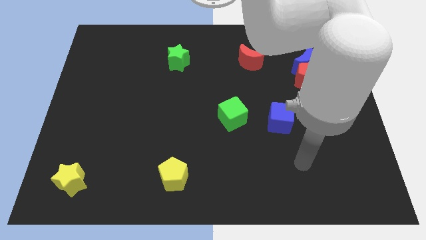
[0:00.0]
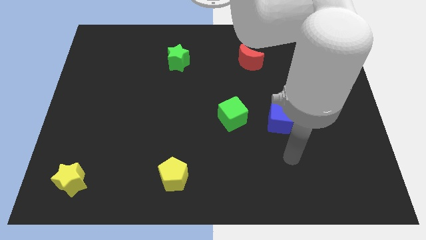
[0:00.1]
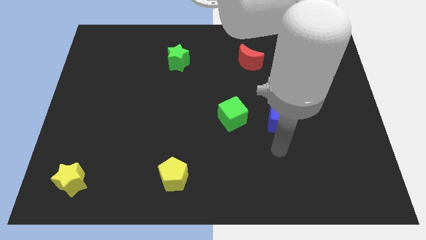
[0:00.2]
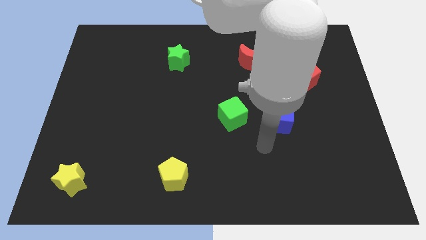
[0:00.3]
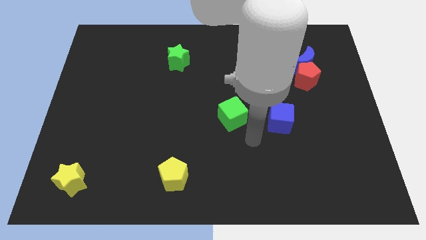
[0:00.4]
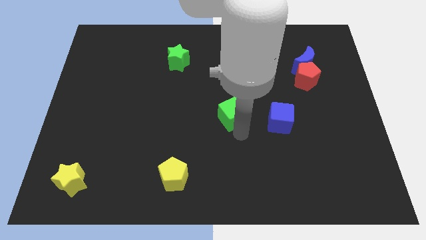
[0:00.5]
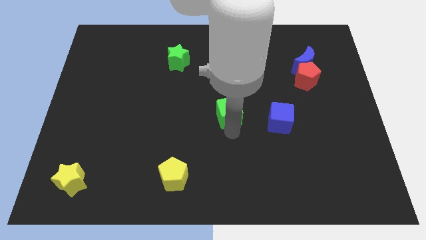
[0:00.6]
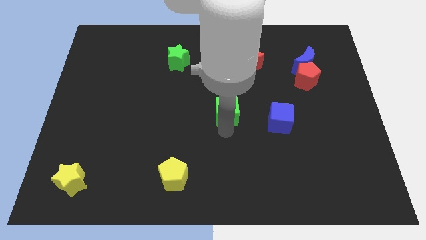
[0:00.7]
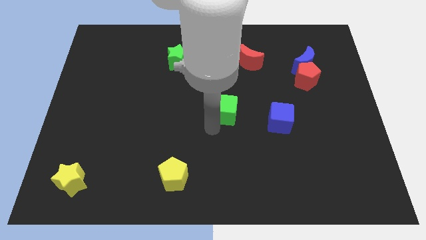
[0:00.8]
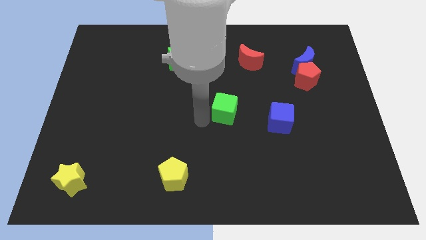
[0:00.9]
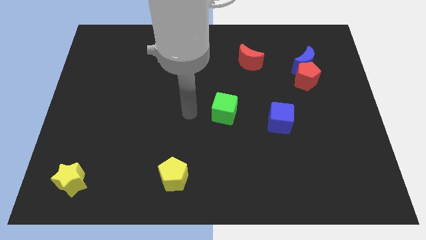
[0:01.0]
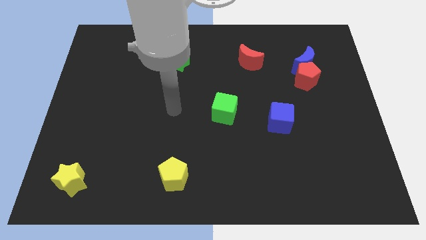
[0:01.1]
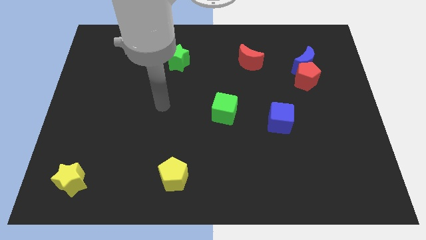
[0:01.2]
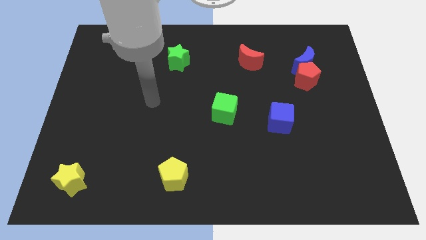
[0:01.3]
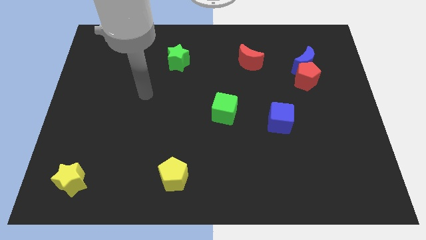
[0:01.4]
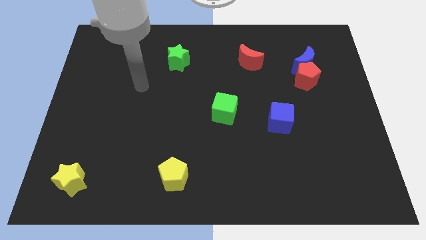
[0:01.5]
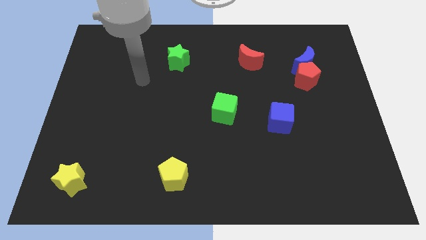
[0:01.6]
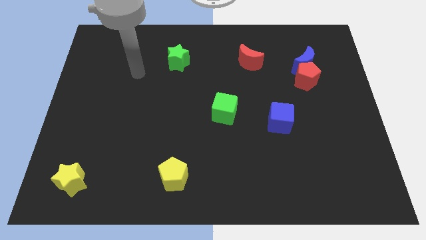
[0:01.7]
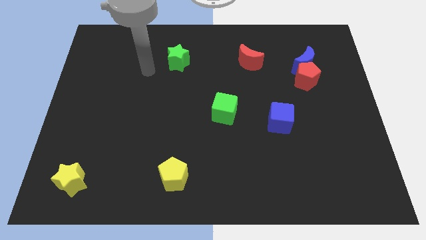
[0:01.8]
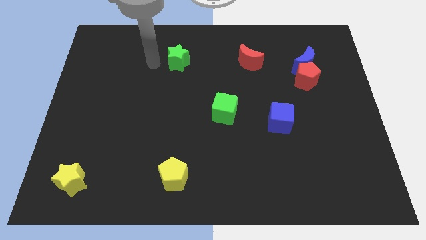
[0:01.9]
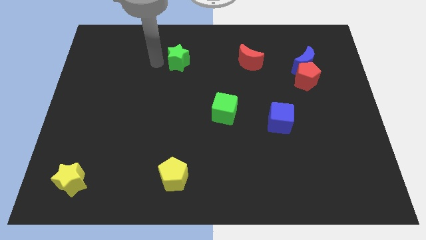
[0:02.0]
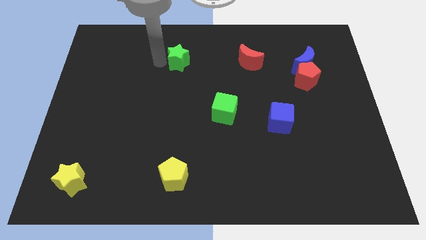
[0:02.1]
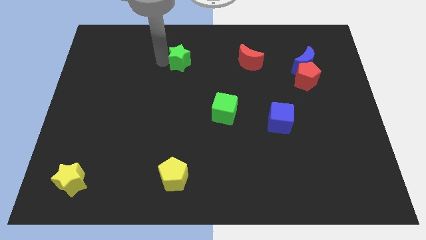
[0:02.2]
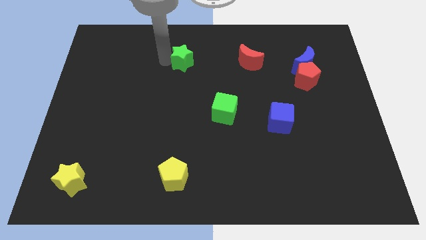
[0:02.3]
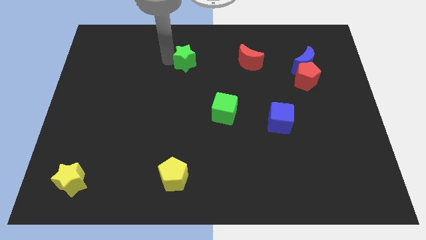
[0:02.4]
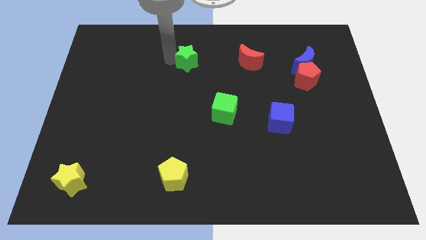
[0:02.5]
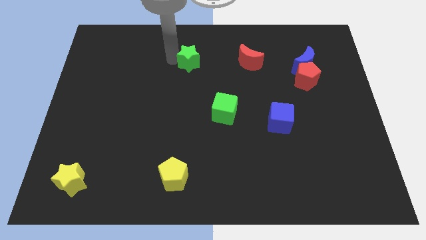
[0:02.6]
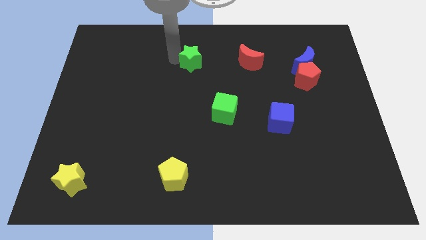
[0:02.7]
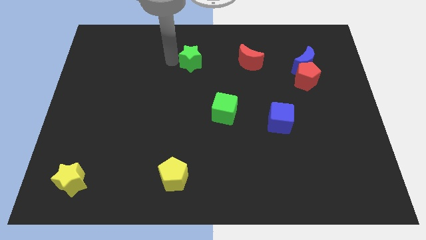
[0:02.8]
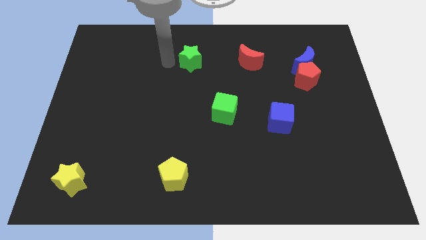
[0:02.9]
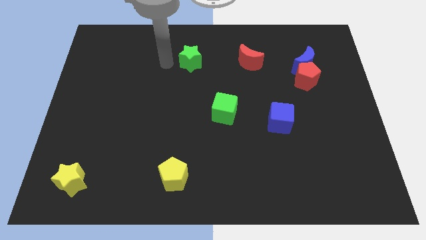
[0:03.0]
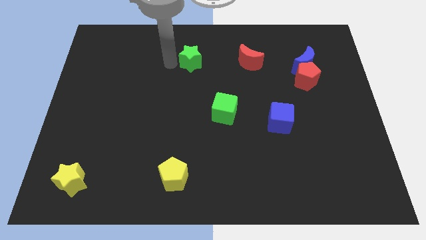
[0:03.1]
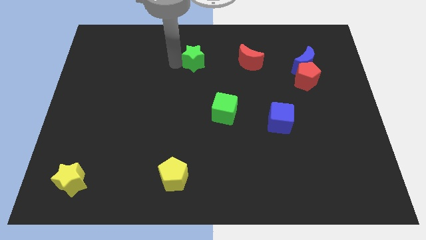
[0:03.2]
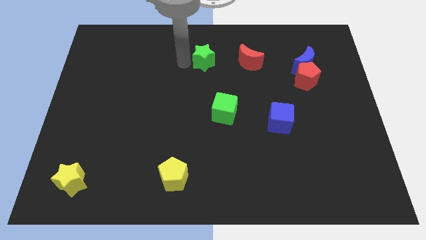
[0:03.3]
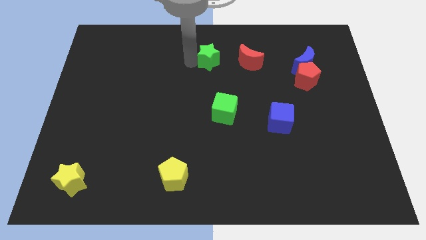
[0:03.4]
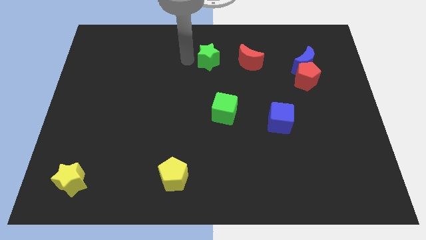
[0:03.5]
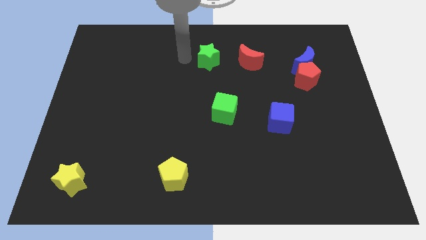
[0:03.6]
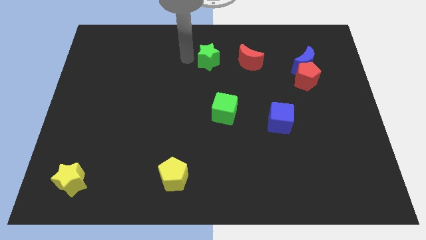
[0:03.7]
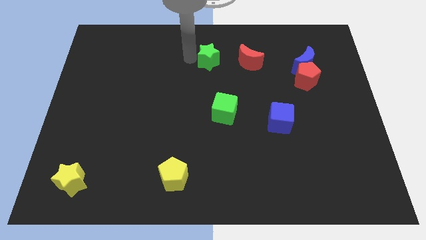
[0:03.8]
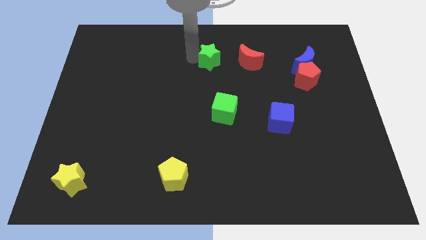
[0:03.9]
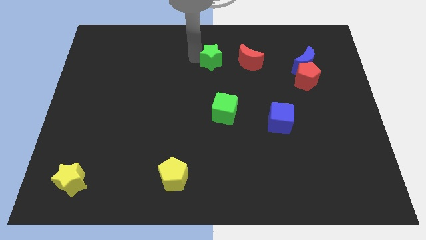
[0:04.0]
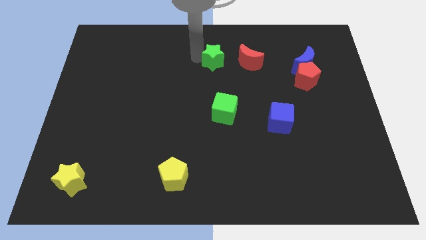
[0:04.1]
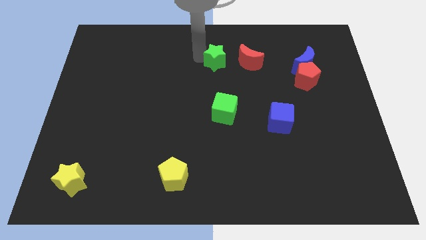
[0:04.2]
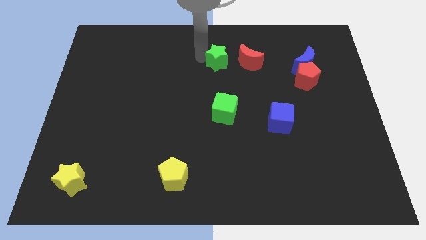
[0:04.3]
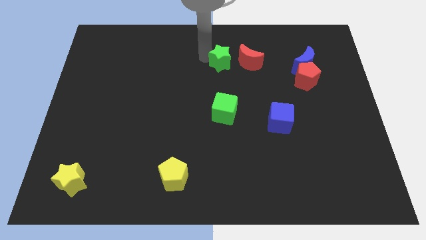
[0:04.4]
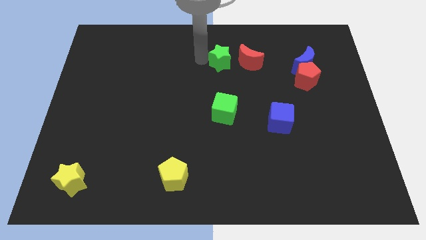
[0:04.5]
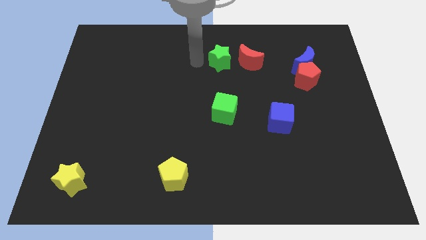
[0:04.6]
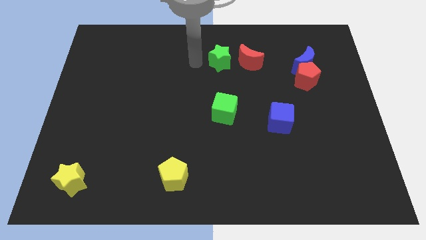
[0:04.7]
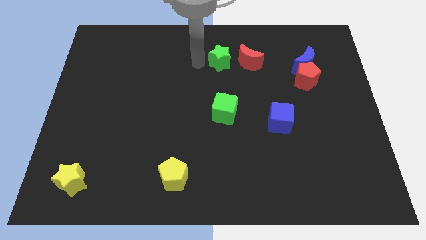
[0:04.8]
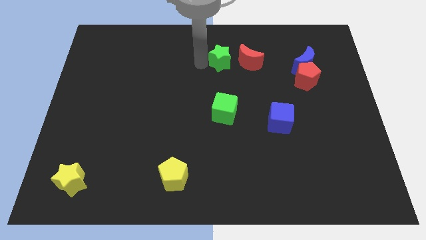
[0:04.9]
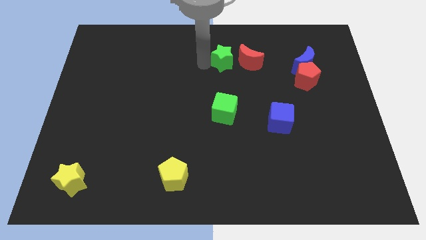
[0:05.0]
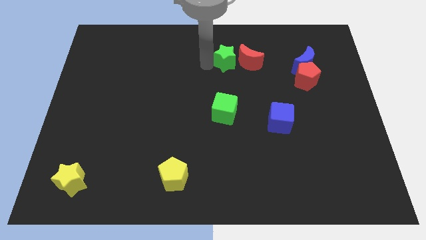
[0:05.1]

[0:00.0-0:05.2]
push the green star towards the red moon

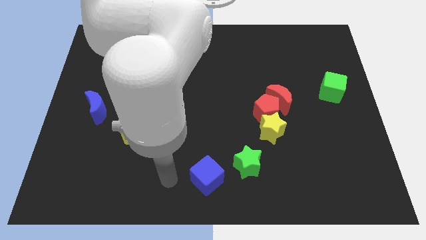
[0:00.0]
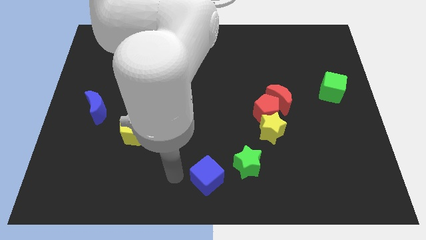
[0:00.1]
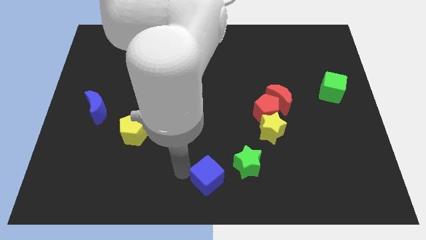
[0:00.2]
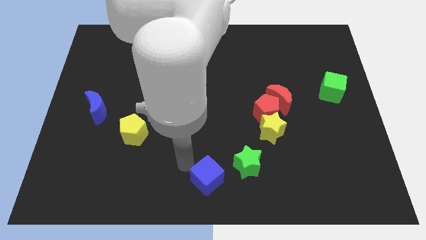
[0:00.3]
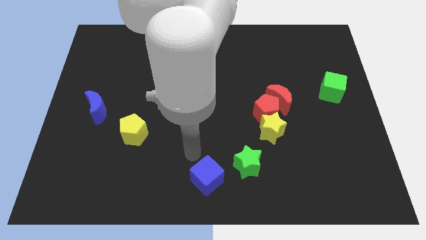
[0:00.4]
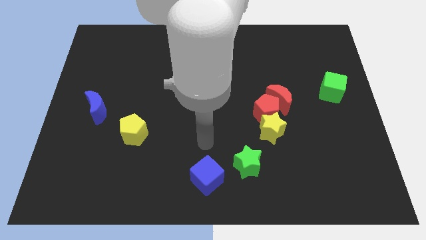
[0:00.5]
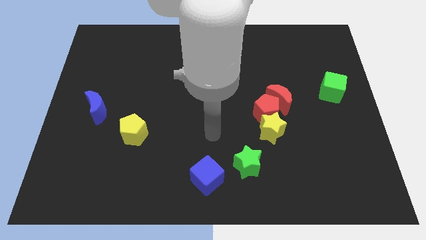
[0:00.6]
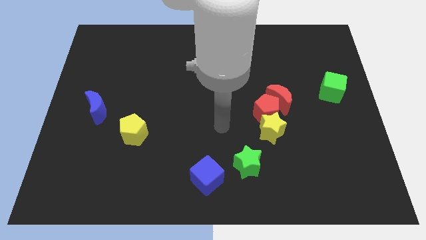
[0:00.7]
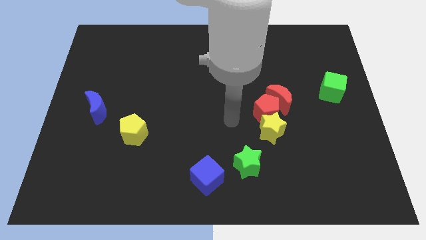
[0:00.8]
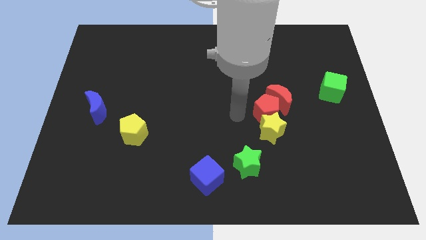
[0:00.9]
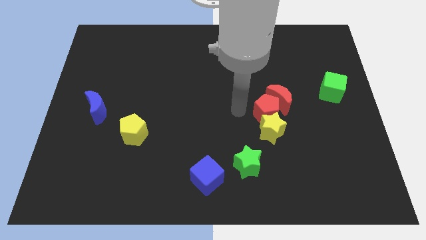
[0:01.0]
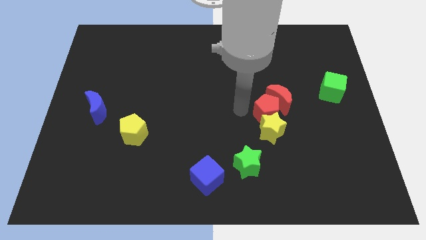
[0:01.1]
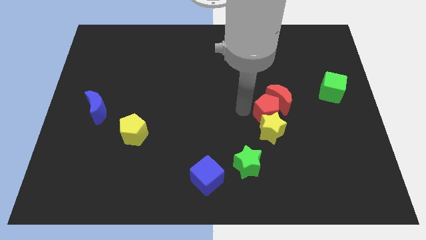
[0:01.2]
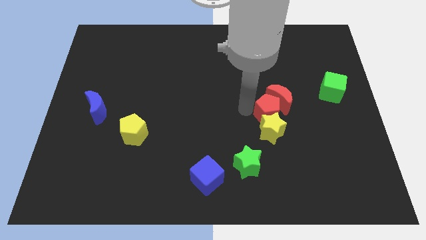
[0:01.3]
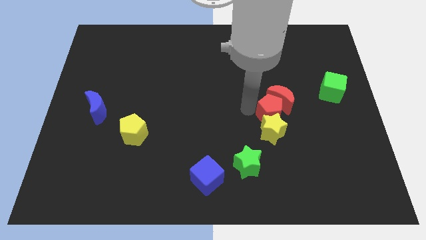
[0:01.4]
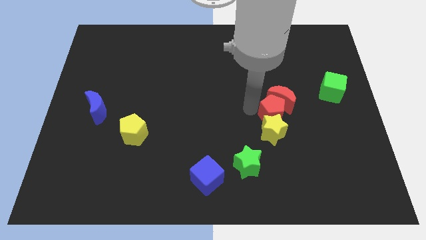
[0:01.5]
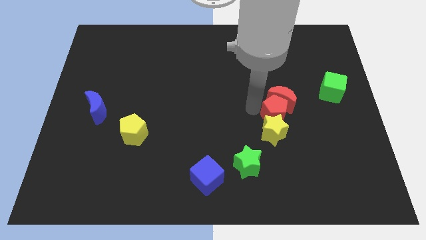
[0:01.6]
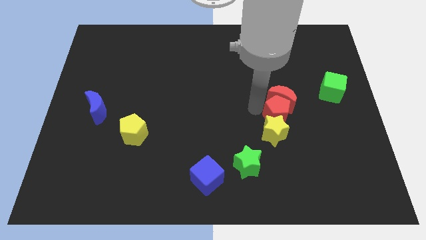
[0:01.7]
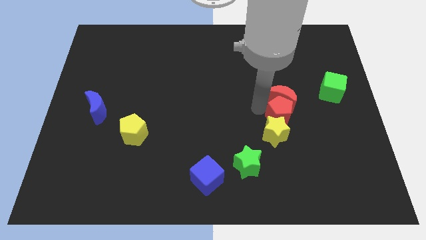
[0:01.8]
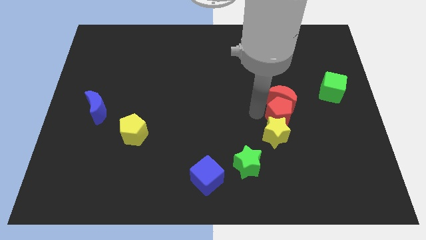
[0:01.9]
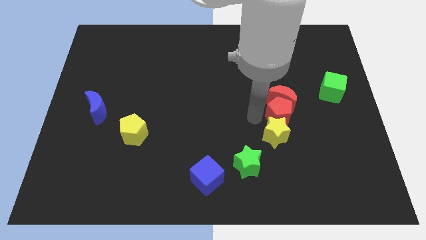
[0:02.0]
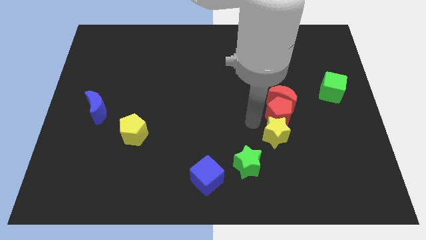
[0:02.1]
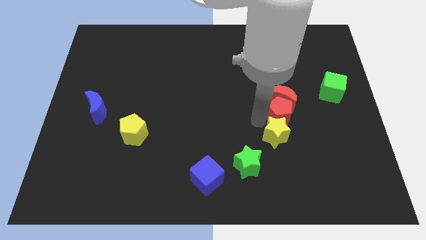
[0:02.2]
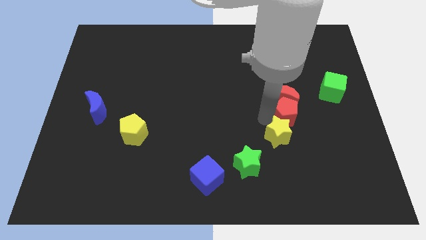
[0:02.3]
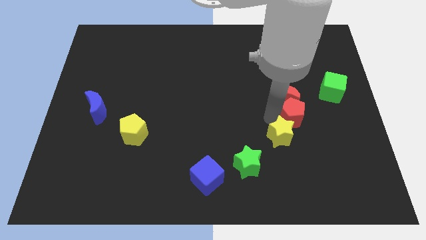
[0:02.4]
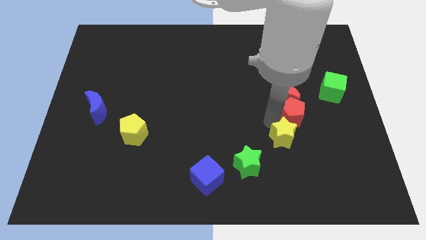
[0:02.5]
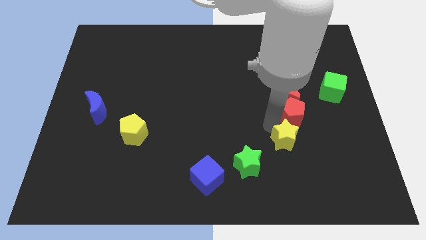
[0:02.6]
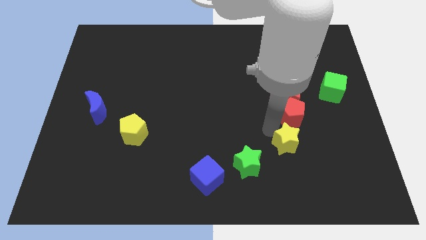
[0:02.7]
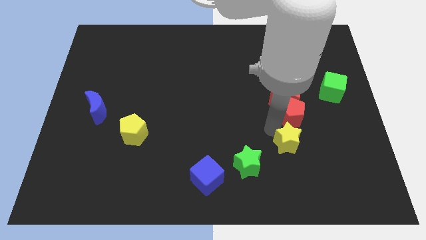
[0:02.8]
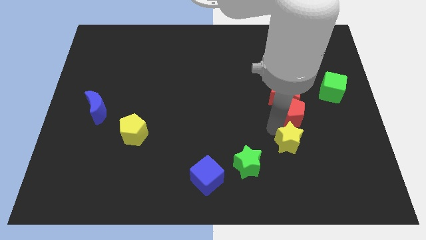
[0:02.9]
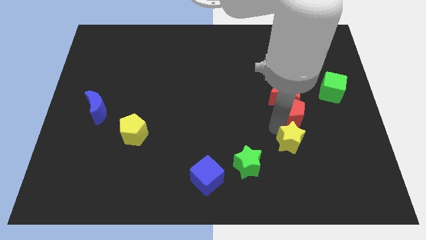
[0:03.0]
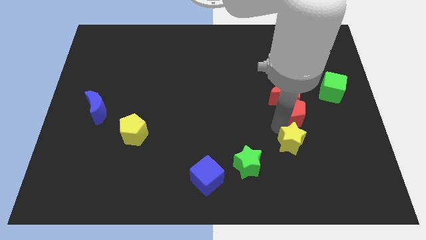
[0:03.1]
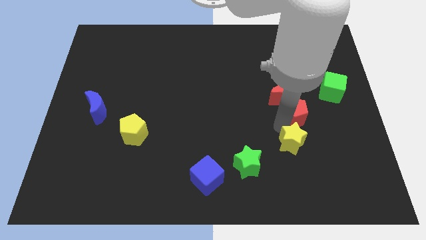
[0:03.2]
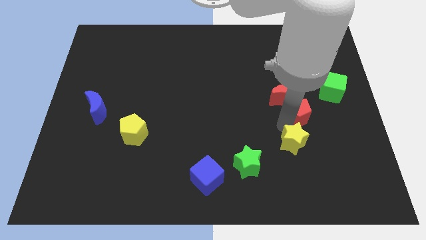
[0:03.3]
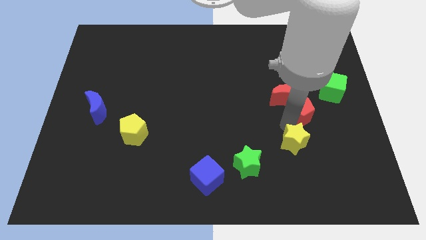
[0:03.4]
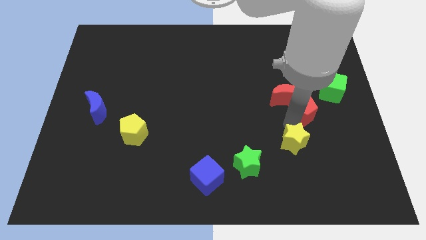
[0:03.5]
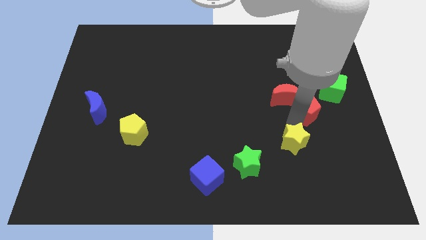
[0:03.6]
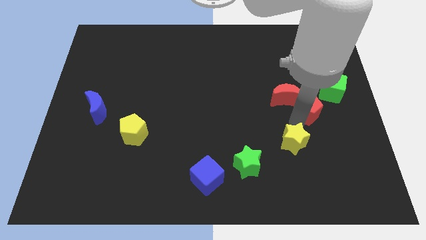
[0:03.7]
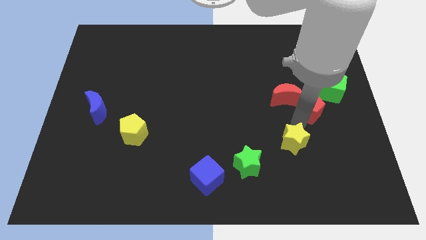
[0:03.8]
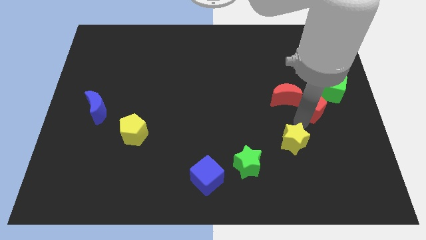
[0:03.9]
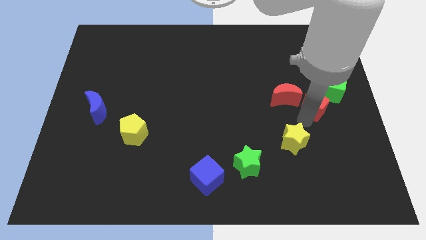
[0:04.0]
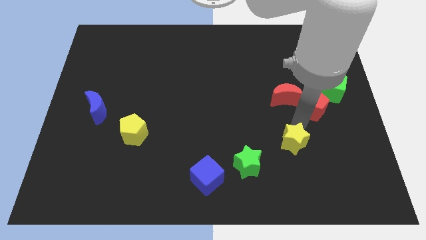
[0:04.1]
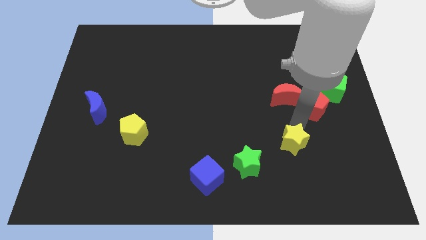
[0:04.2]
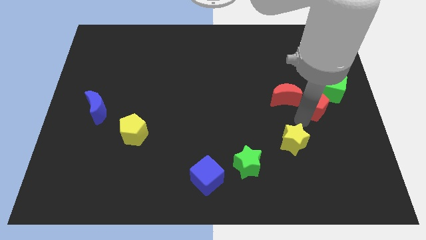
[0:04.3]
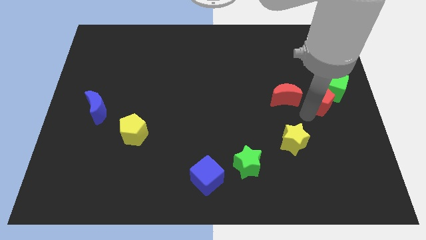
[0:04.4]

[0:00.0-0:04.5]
move the red pentagon close to the green cube
